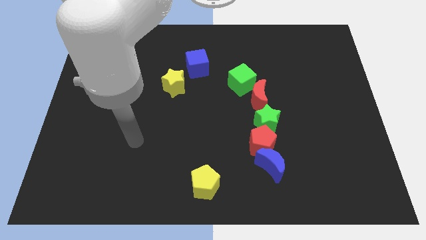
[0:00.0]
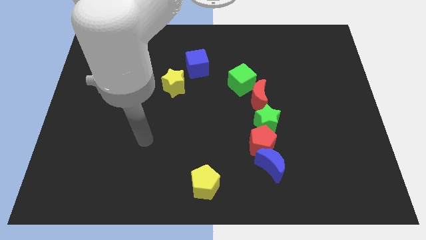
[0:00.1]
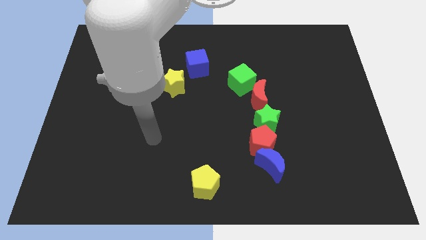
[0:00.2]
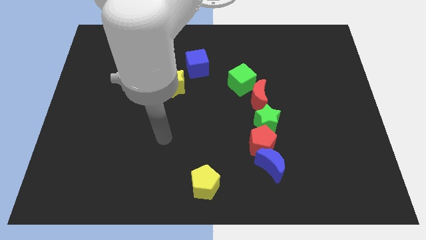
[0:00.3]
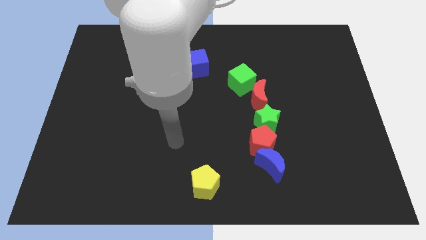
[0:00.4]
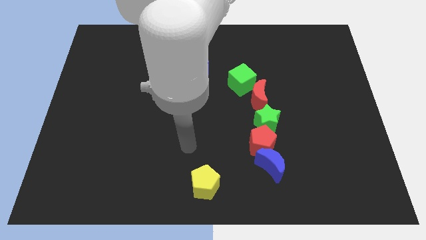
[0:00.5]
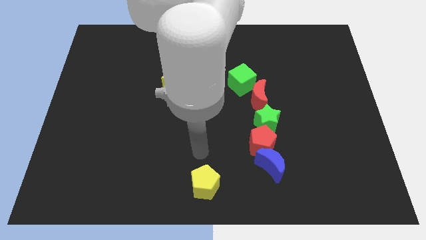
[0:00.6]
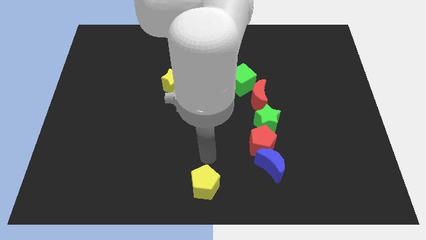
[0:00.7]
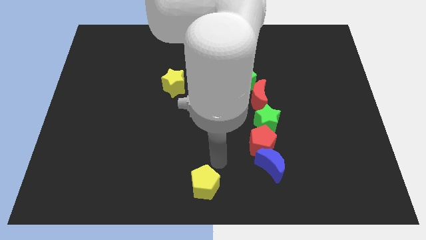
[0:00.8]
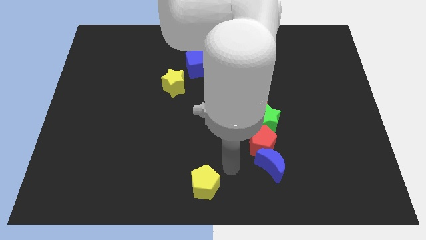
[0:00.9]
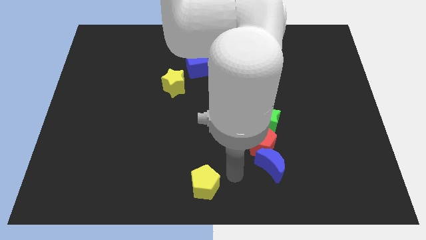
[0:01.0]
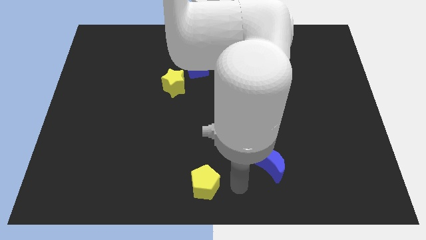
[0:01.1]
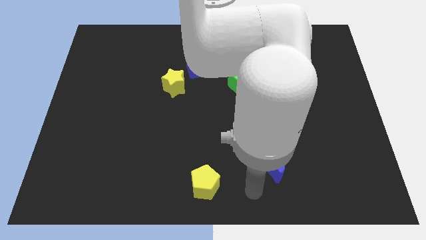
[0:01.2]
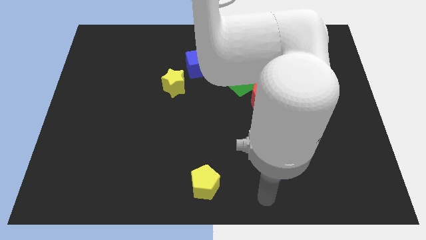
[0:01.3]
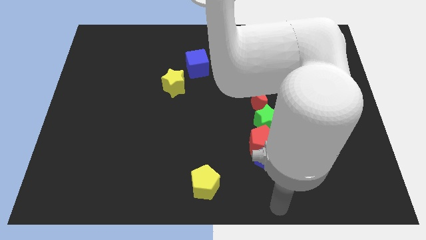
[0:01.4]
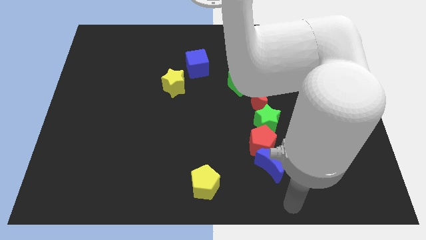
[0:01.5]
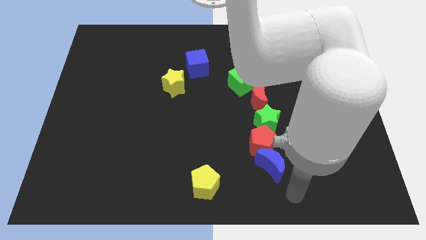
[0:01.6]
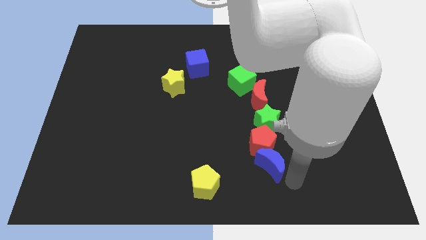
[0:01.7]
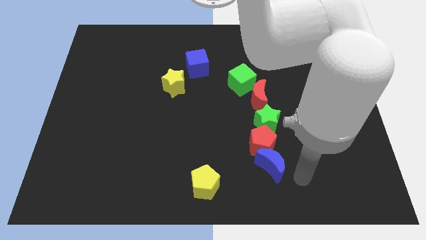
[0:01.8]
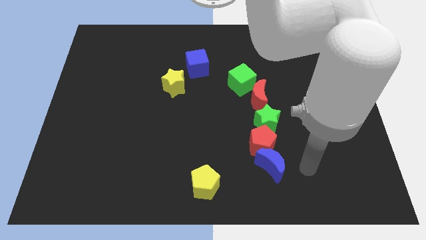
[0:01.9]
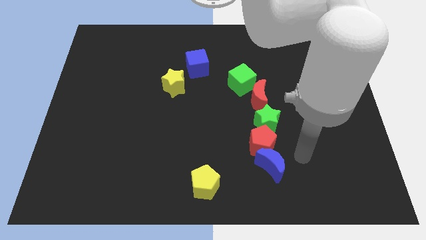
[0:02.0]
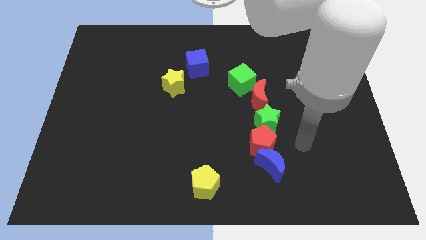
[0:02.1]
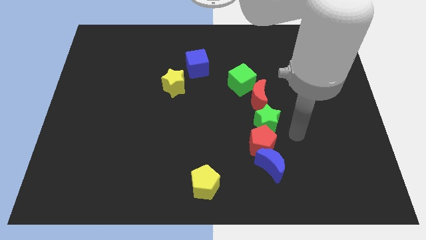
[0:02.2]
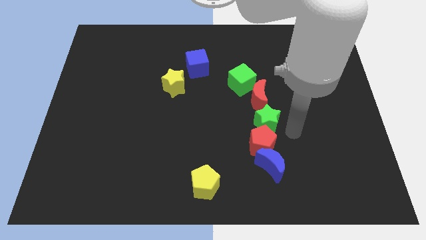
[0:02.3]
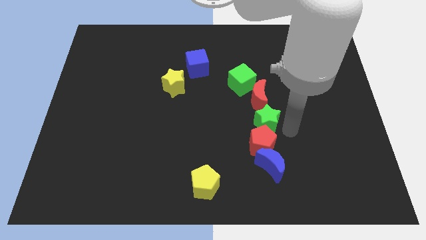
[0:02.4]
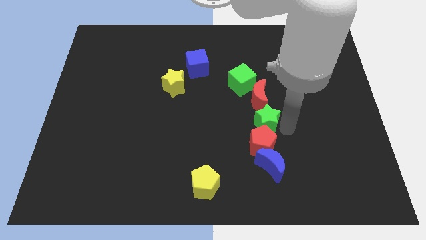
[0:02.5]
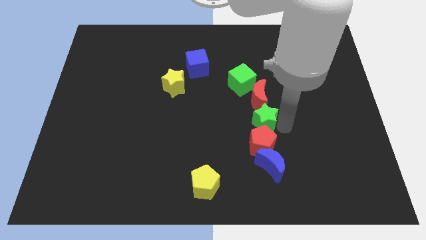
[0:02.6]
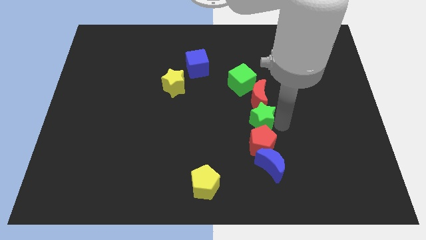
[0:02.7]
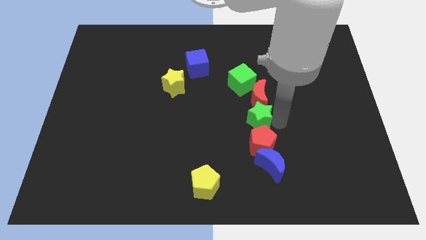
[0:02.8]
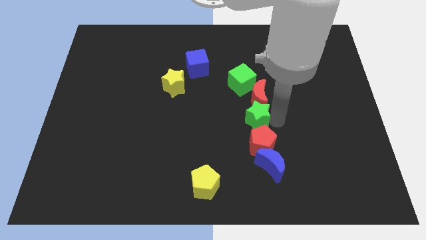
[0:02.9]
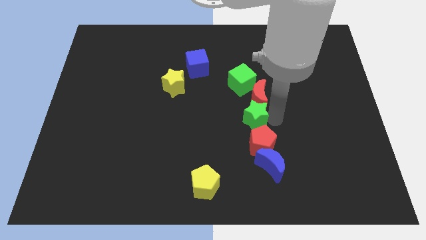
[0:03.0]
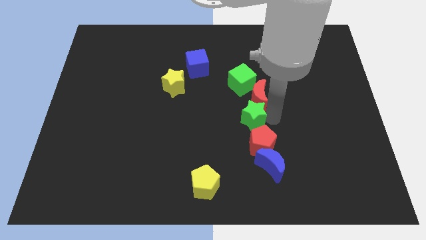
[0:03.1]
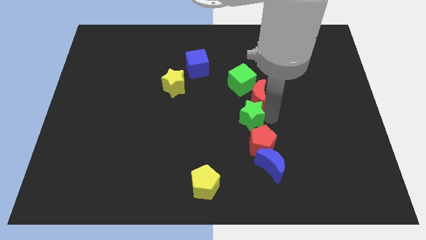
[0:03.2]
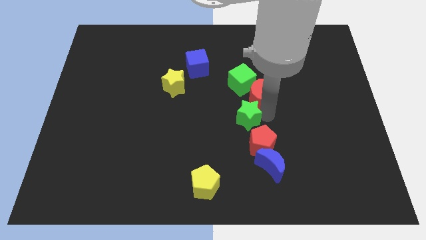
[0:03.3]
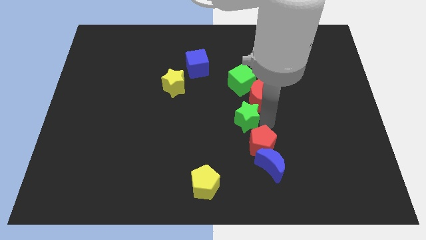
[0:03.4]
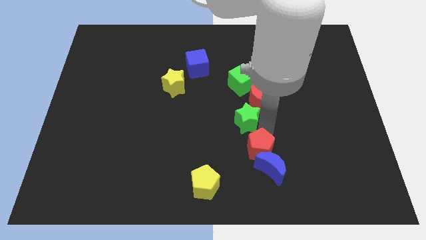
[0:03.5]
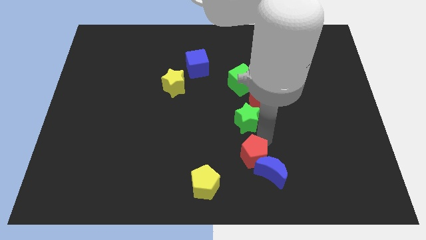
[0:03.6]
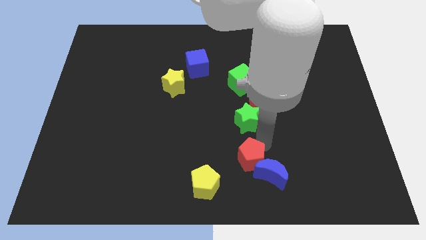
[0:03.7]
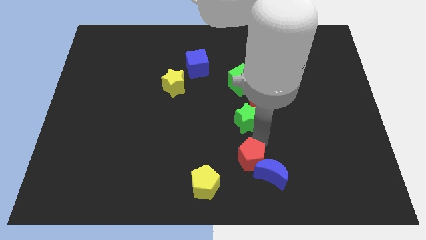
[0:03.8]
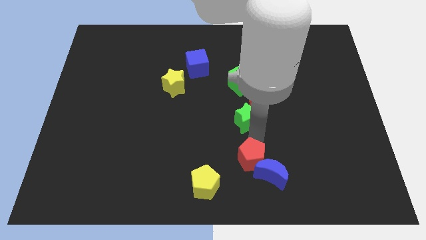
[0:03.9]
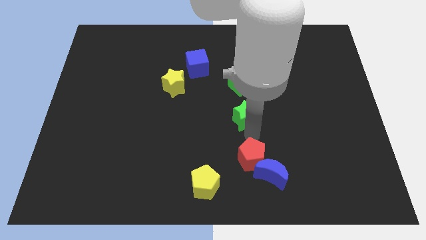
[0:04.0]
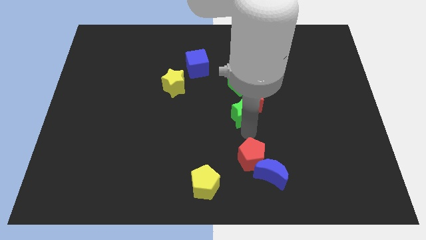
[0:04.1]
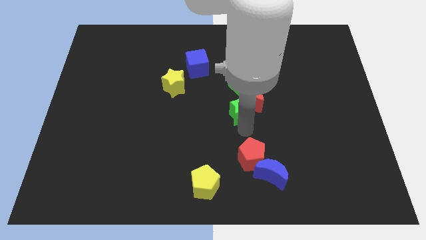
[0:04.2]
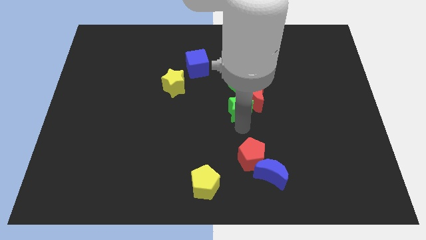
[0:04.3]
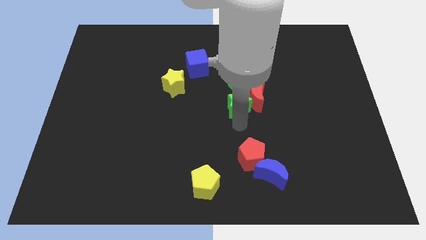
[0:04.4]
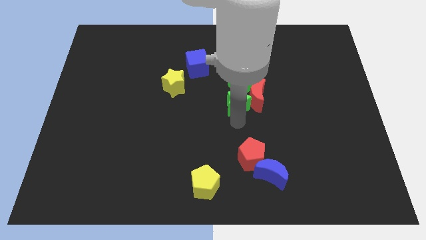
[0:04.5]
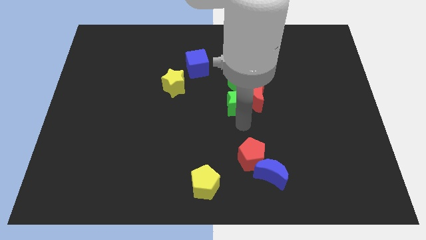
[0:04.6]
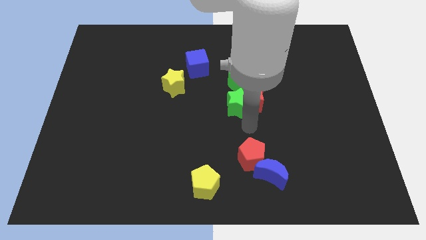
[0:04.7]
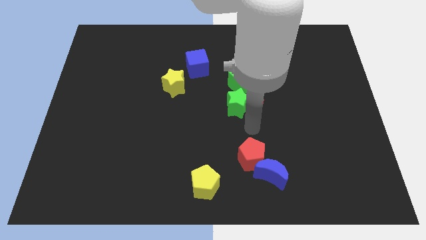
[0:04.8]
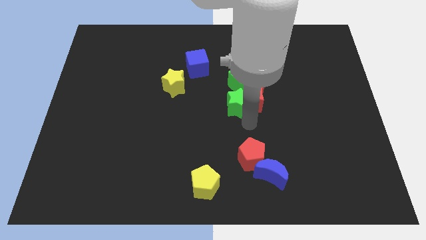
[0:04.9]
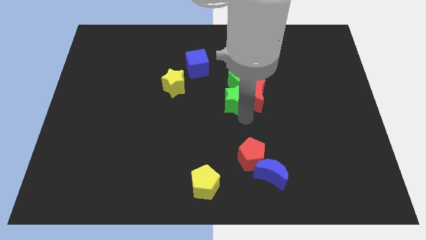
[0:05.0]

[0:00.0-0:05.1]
move the green star diagonally up and to the left of the red moon

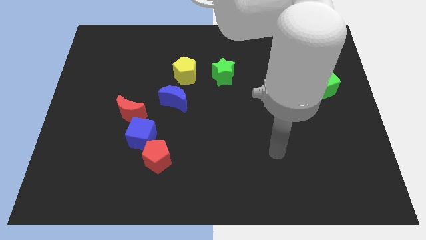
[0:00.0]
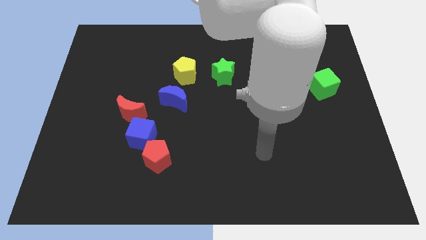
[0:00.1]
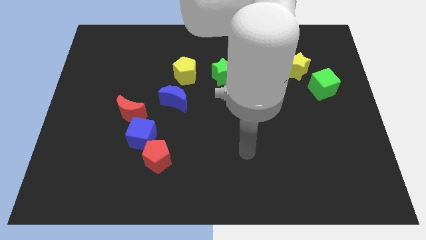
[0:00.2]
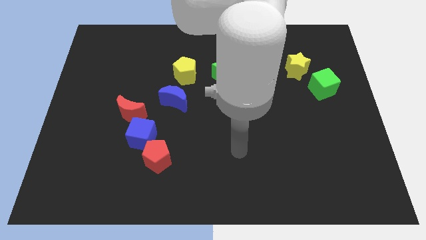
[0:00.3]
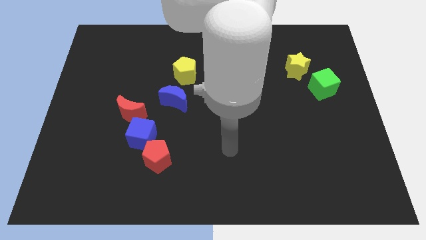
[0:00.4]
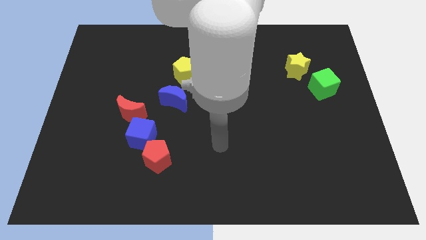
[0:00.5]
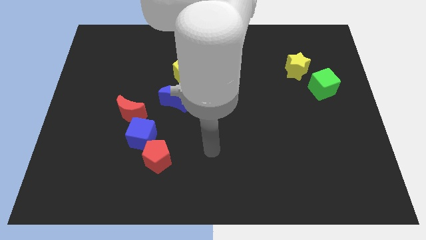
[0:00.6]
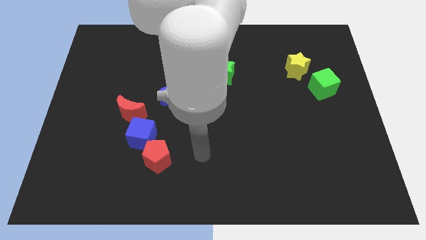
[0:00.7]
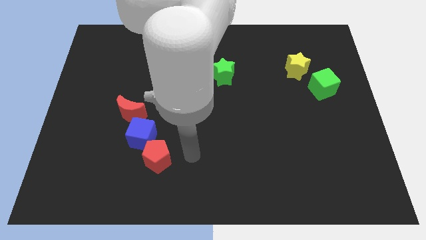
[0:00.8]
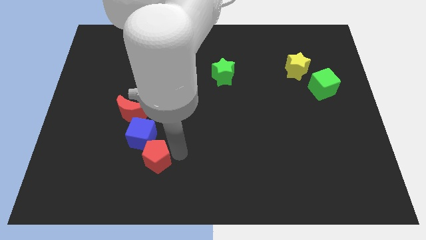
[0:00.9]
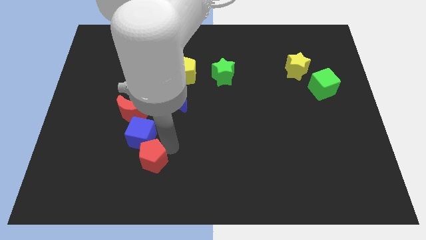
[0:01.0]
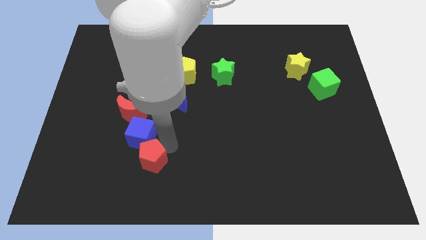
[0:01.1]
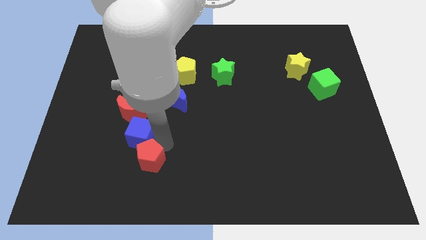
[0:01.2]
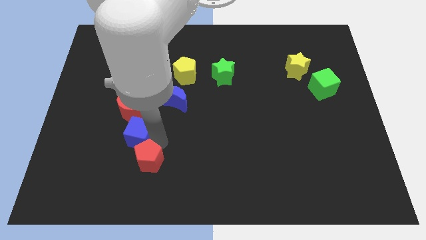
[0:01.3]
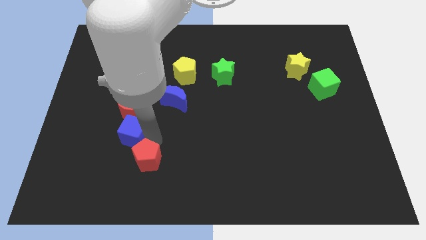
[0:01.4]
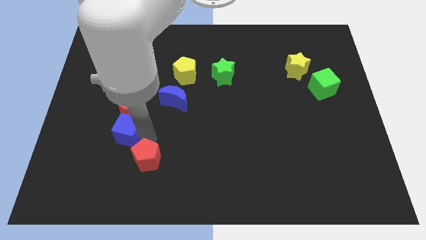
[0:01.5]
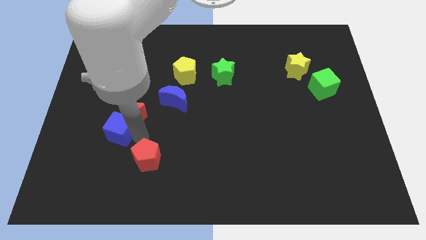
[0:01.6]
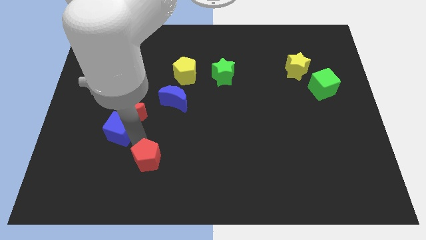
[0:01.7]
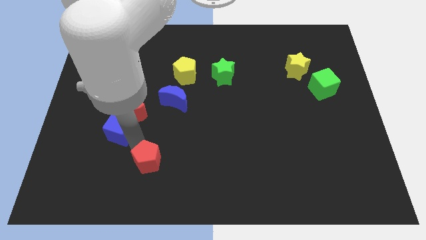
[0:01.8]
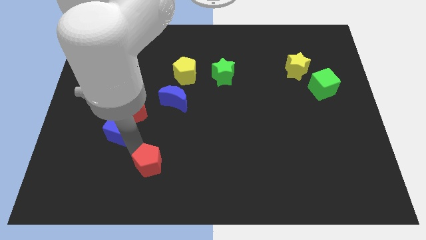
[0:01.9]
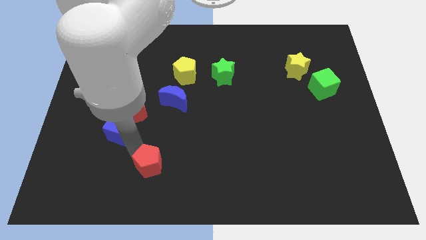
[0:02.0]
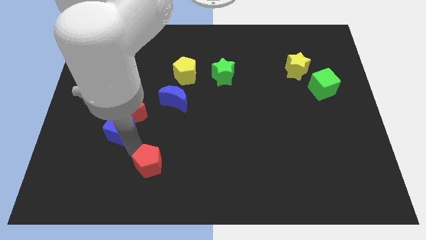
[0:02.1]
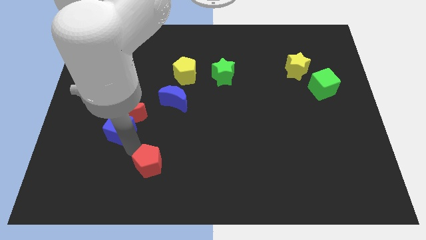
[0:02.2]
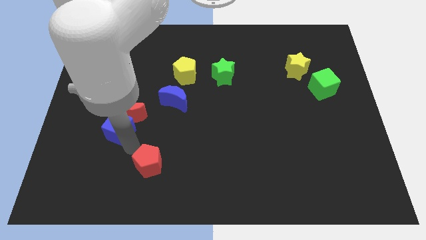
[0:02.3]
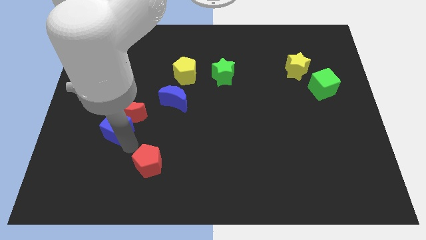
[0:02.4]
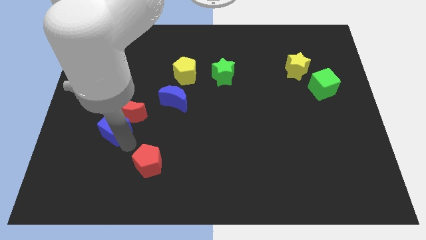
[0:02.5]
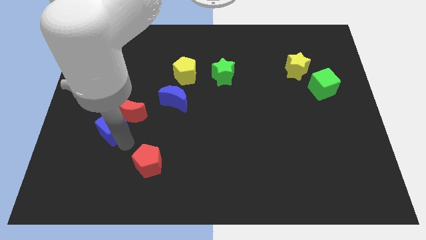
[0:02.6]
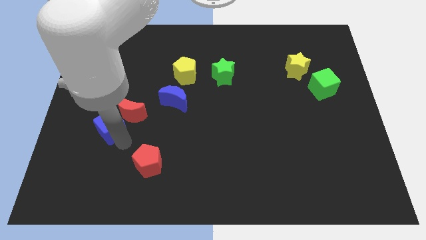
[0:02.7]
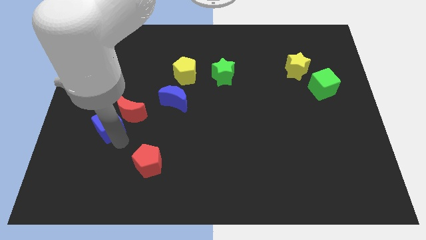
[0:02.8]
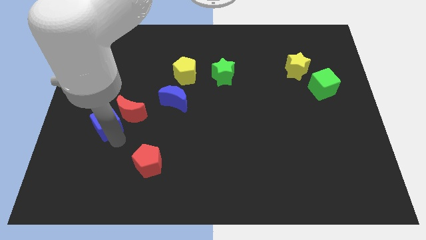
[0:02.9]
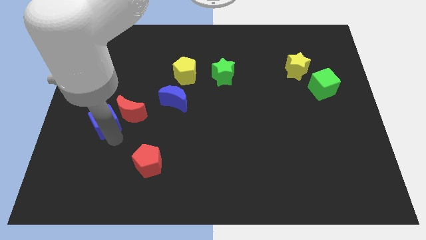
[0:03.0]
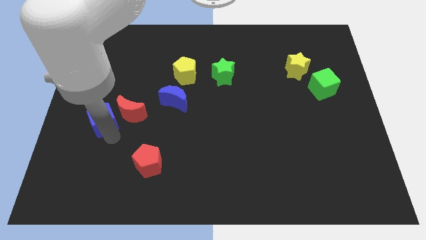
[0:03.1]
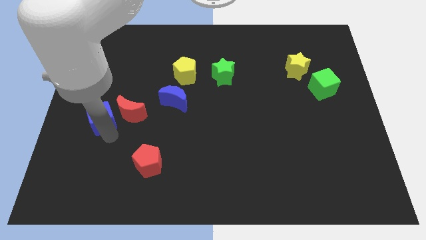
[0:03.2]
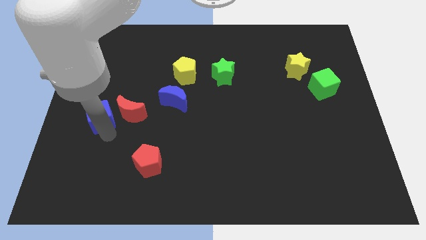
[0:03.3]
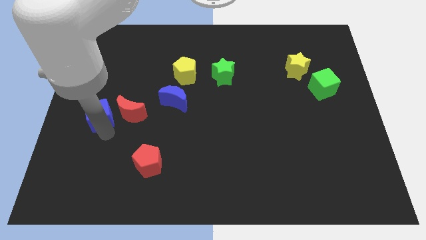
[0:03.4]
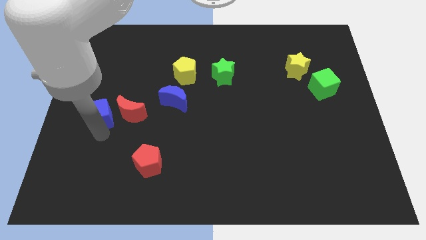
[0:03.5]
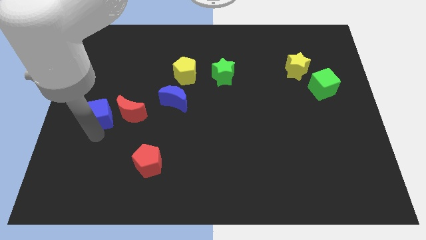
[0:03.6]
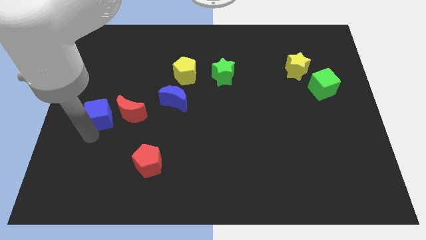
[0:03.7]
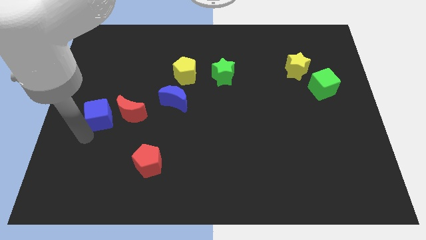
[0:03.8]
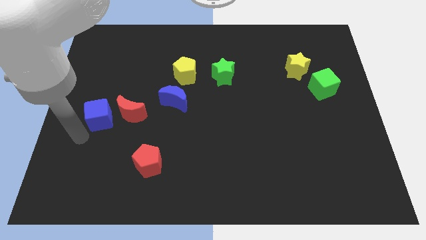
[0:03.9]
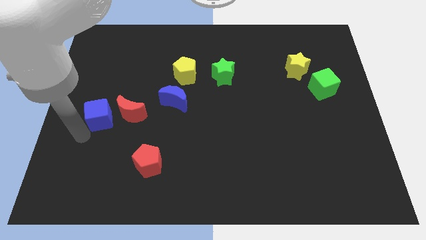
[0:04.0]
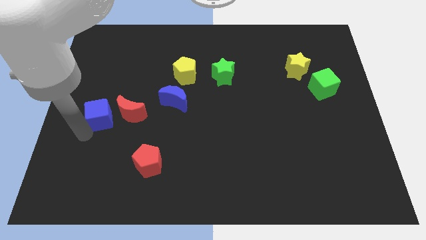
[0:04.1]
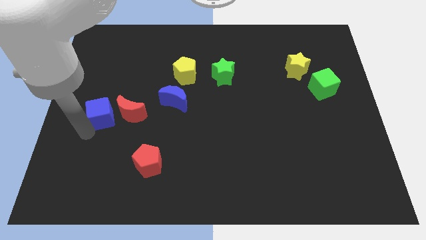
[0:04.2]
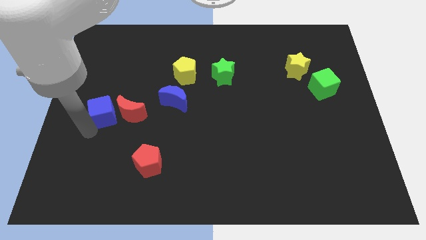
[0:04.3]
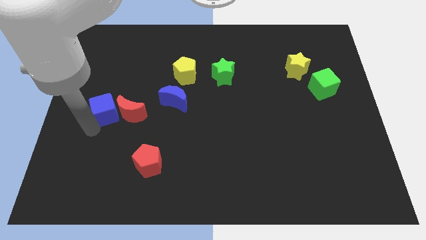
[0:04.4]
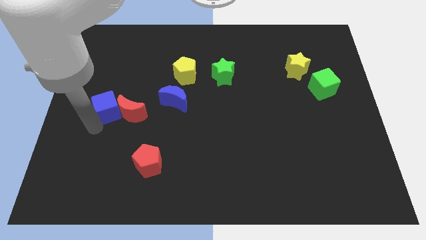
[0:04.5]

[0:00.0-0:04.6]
move the blue cube to the left side of the blue moon
